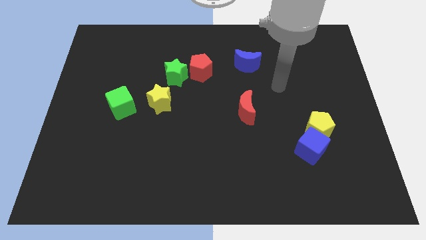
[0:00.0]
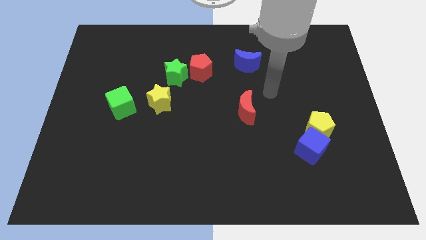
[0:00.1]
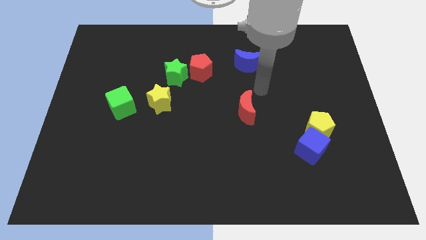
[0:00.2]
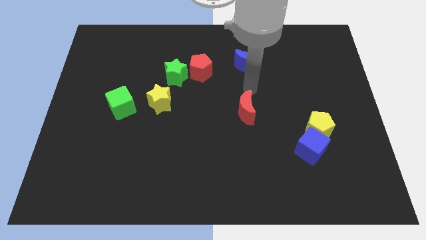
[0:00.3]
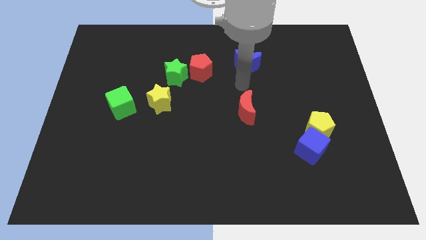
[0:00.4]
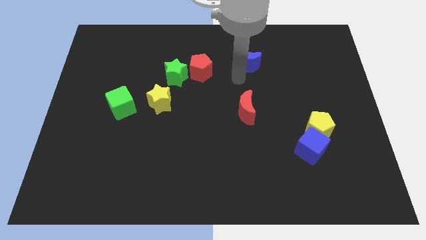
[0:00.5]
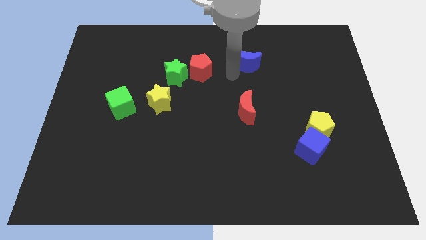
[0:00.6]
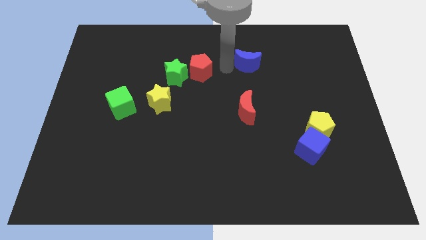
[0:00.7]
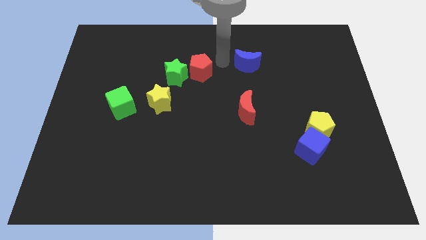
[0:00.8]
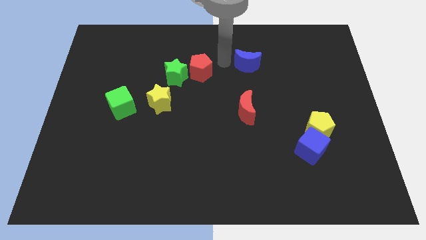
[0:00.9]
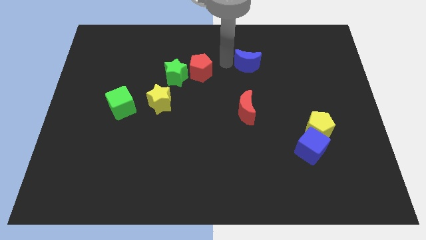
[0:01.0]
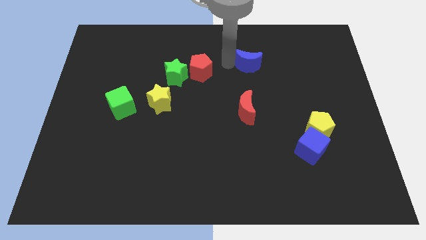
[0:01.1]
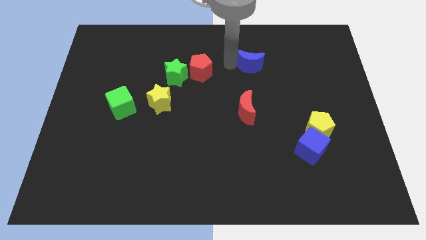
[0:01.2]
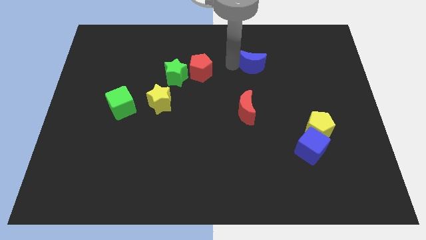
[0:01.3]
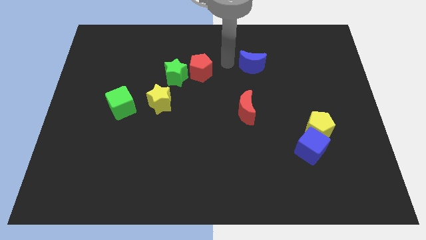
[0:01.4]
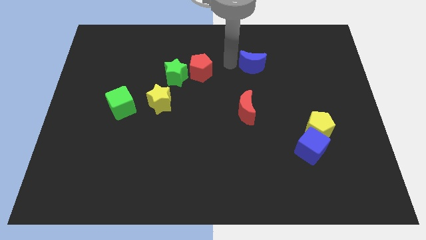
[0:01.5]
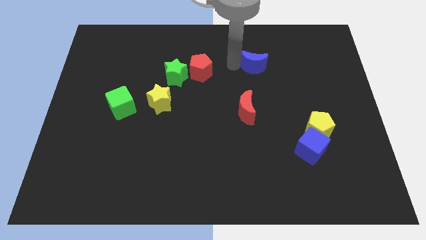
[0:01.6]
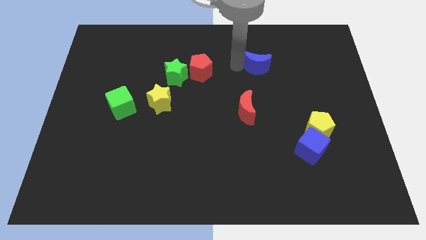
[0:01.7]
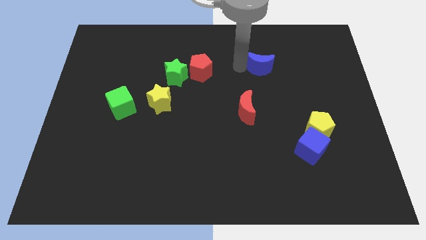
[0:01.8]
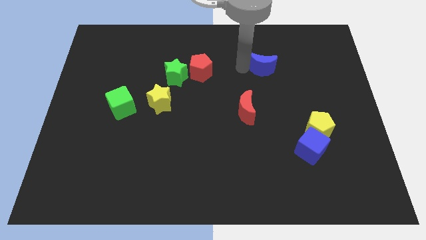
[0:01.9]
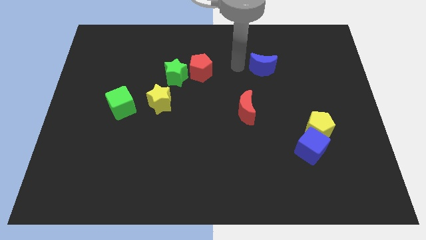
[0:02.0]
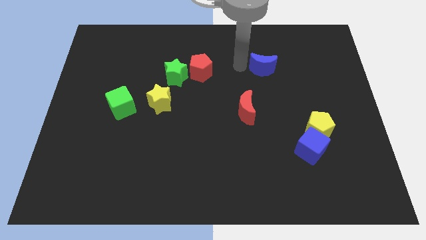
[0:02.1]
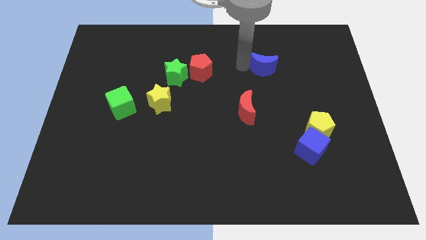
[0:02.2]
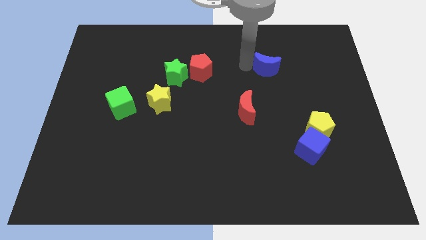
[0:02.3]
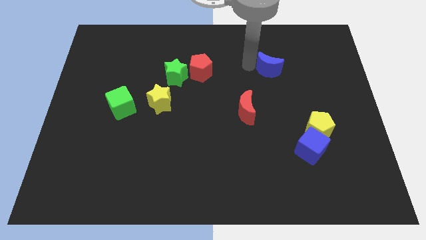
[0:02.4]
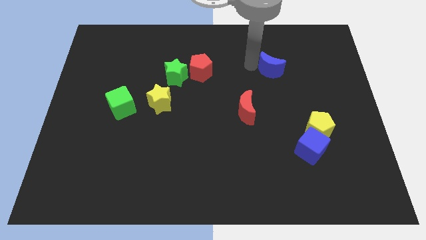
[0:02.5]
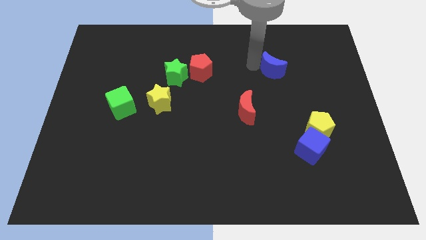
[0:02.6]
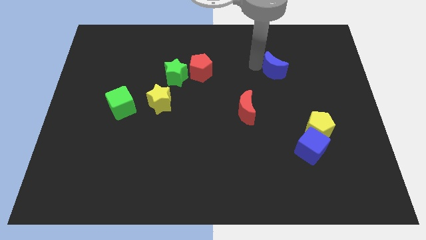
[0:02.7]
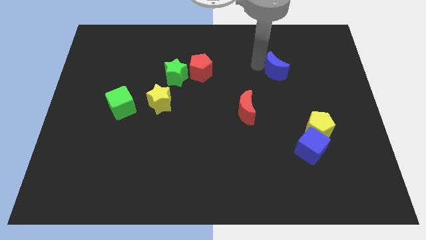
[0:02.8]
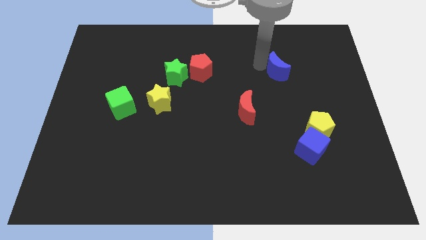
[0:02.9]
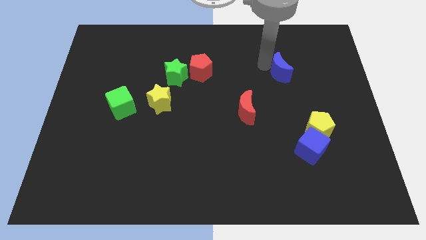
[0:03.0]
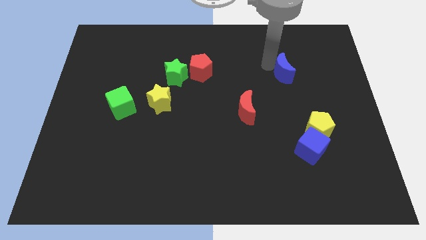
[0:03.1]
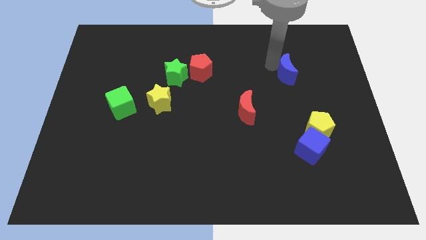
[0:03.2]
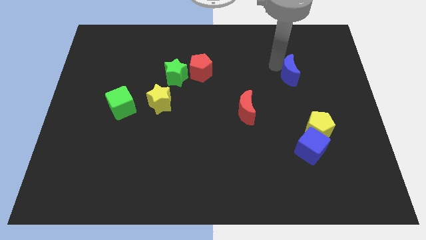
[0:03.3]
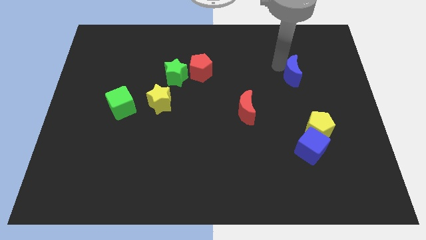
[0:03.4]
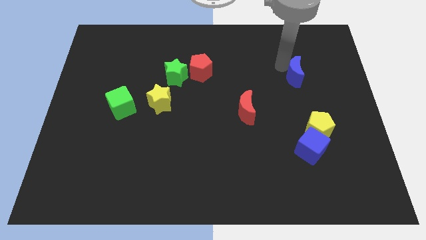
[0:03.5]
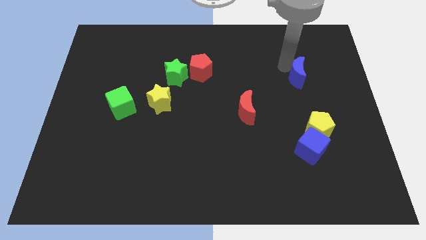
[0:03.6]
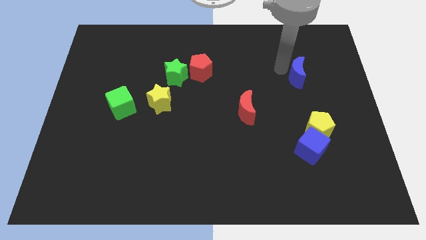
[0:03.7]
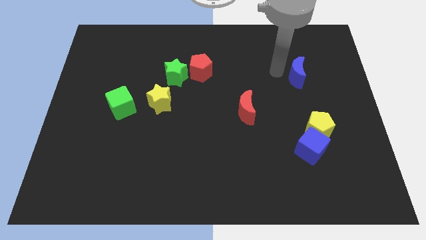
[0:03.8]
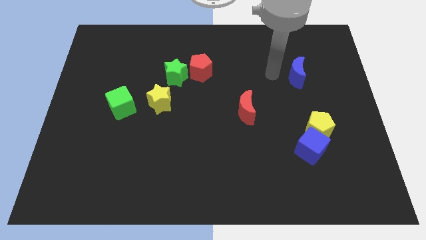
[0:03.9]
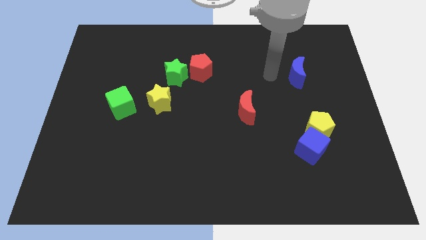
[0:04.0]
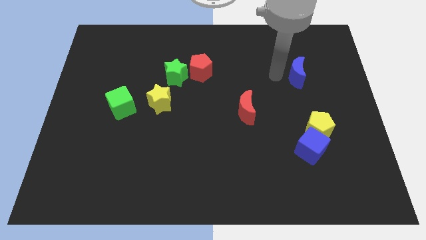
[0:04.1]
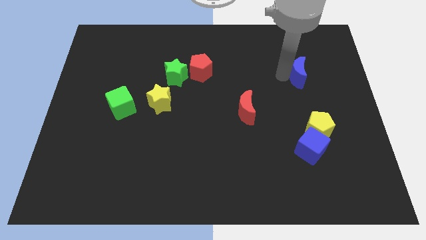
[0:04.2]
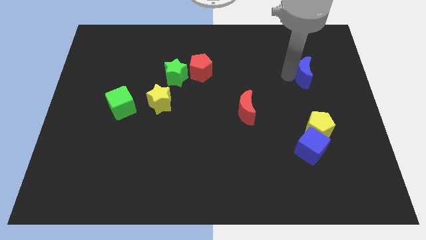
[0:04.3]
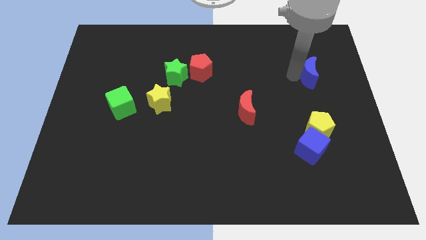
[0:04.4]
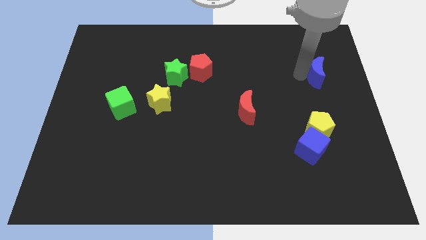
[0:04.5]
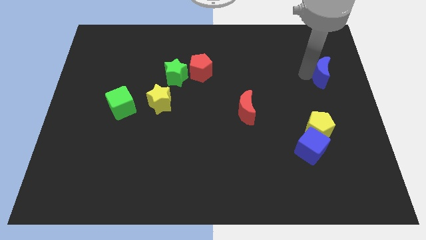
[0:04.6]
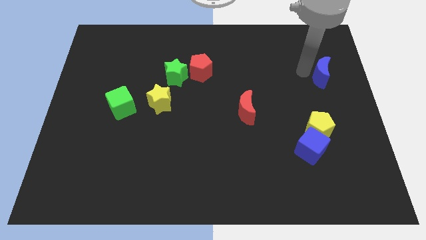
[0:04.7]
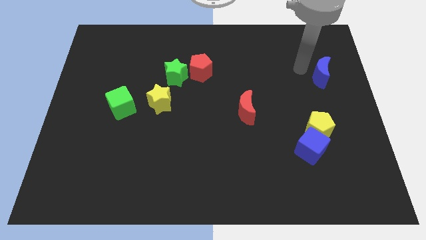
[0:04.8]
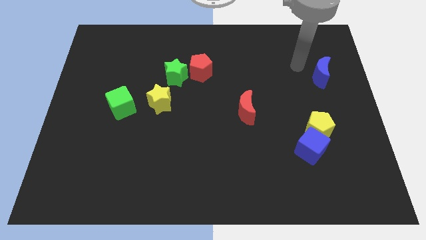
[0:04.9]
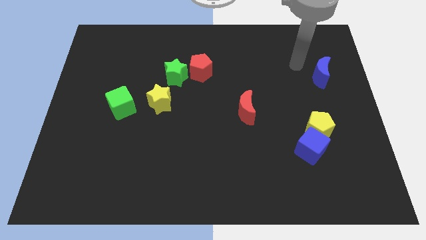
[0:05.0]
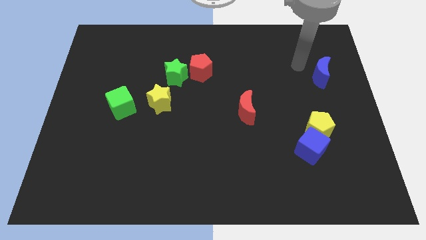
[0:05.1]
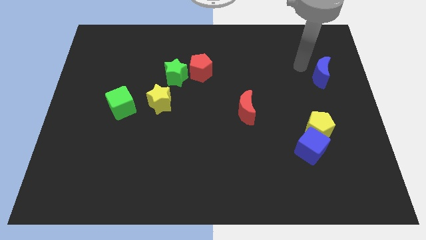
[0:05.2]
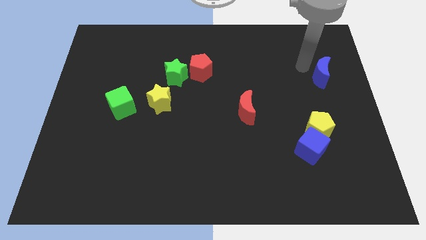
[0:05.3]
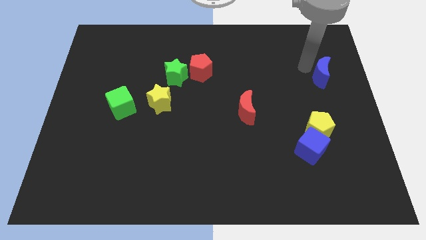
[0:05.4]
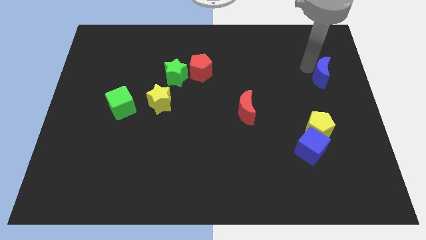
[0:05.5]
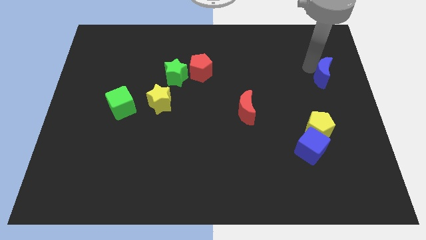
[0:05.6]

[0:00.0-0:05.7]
push the blue moon to the center right
